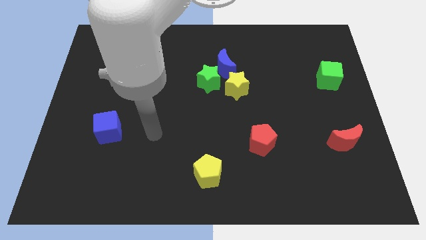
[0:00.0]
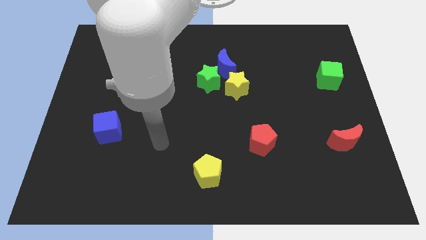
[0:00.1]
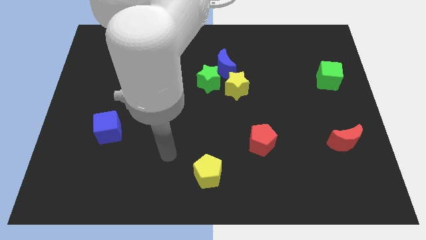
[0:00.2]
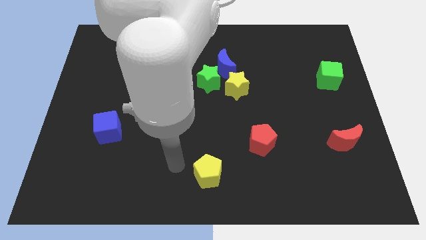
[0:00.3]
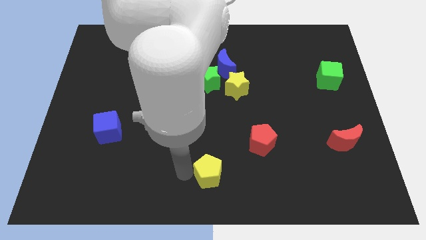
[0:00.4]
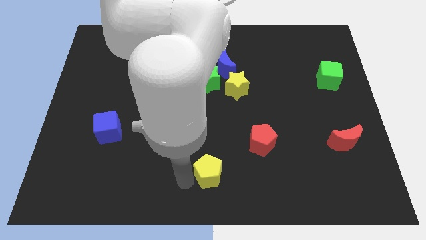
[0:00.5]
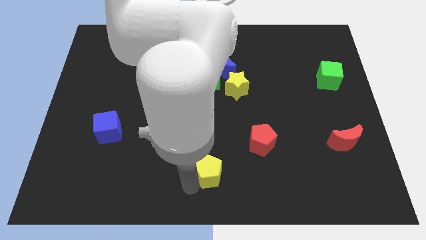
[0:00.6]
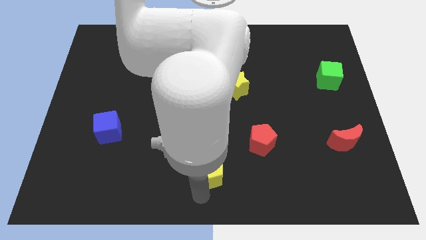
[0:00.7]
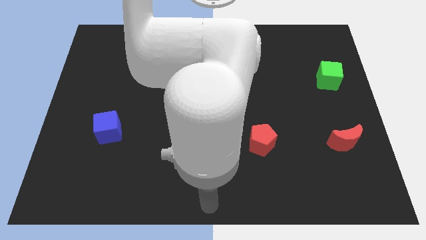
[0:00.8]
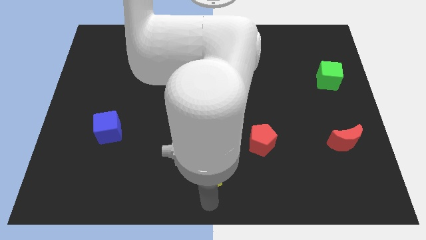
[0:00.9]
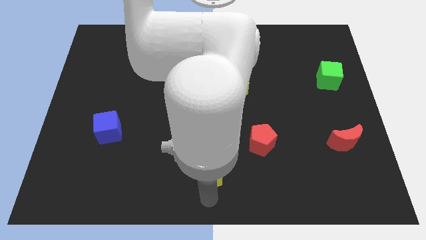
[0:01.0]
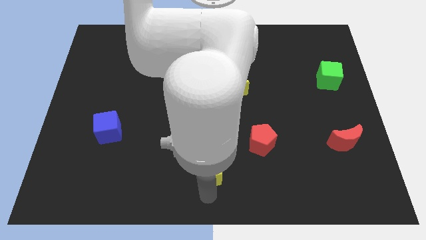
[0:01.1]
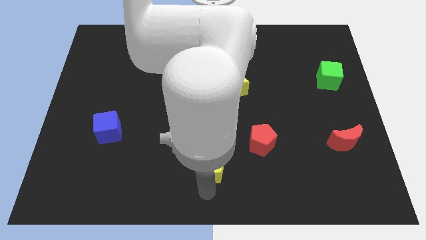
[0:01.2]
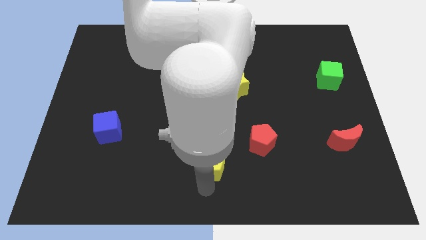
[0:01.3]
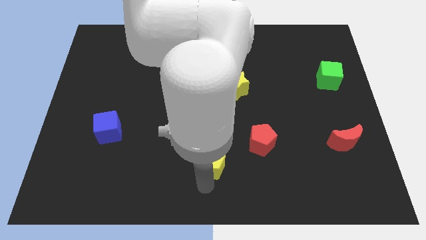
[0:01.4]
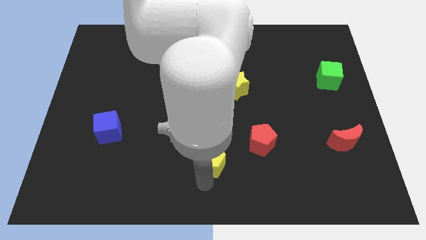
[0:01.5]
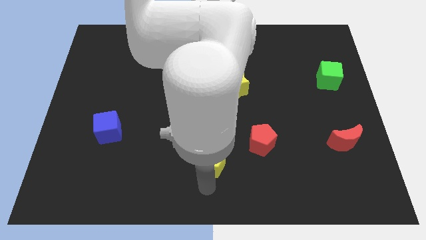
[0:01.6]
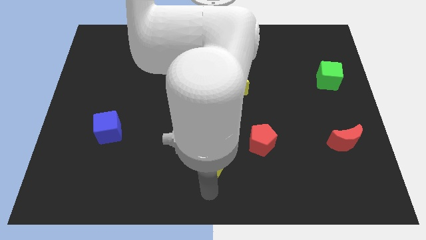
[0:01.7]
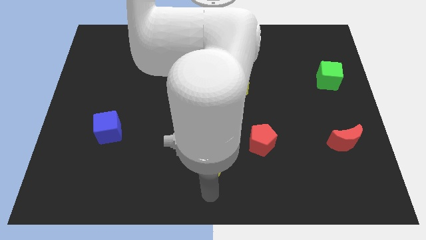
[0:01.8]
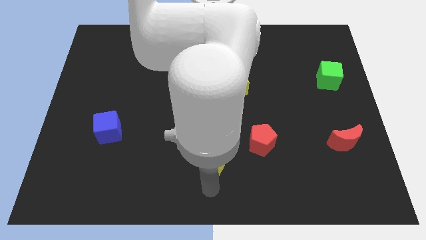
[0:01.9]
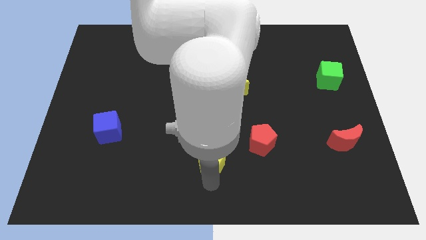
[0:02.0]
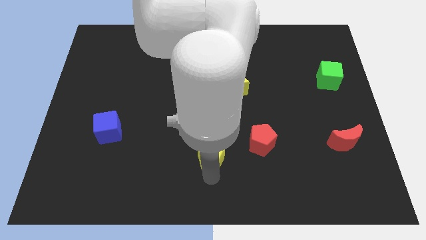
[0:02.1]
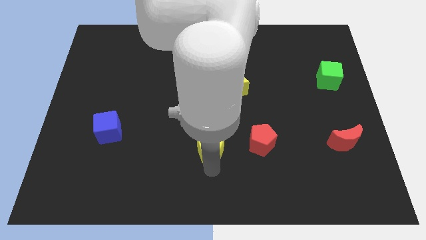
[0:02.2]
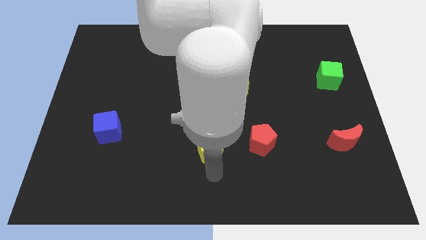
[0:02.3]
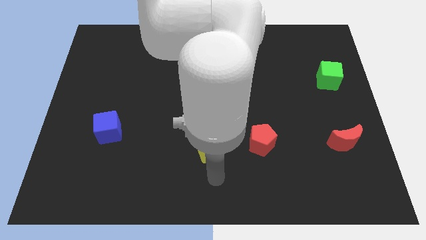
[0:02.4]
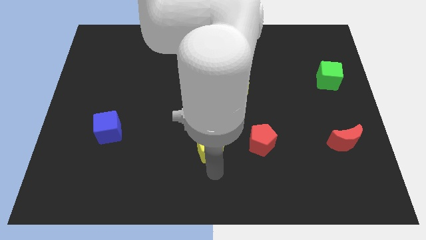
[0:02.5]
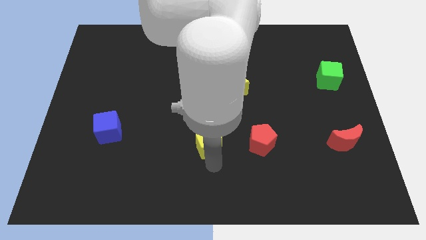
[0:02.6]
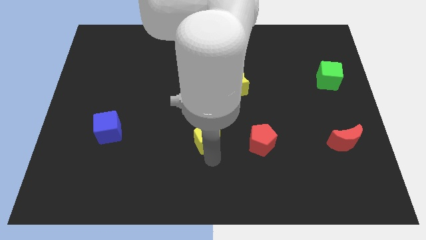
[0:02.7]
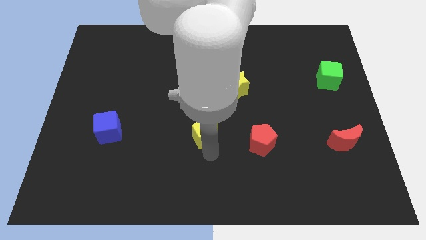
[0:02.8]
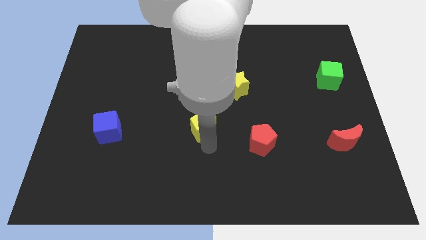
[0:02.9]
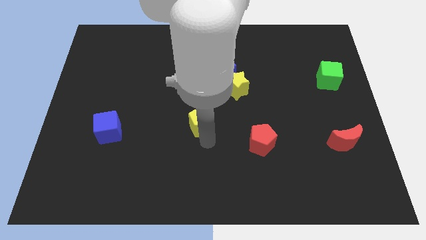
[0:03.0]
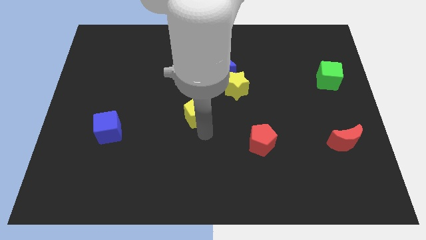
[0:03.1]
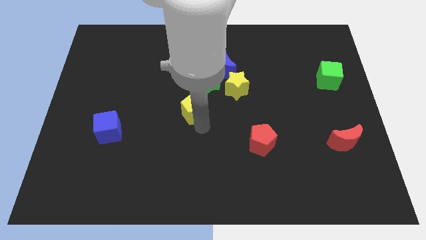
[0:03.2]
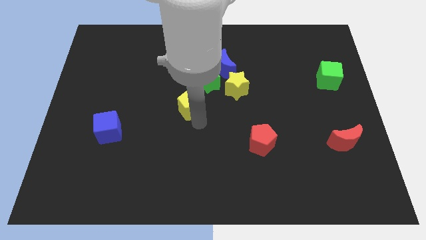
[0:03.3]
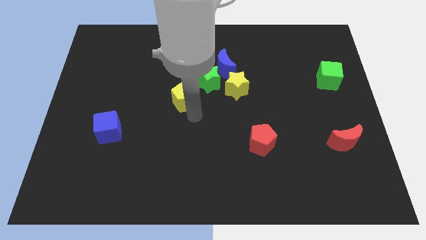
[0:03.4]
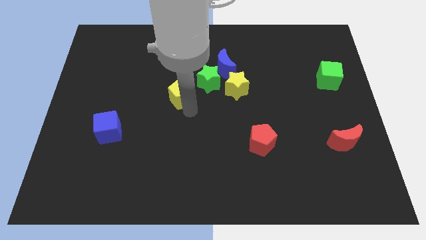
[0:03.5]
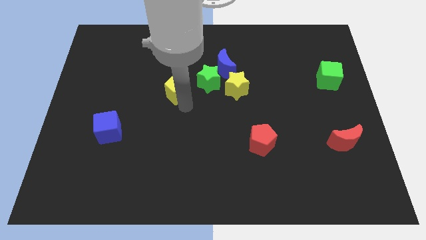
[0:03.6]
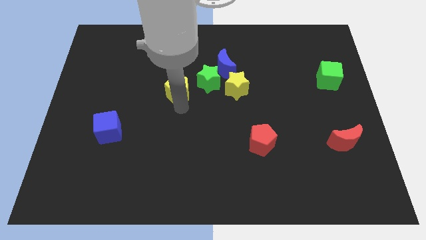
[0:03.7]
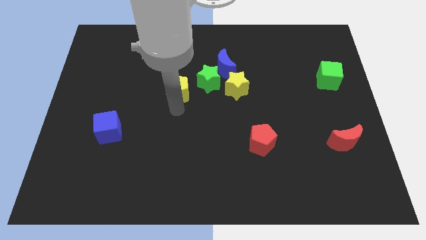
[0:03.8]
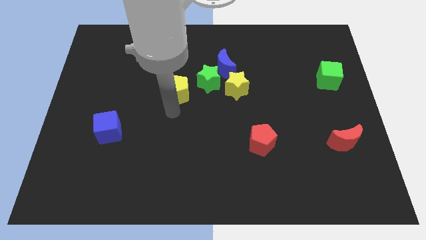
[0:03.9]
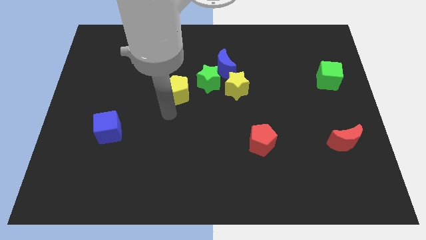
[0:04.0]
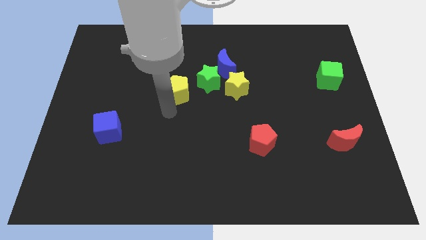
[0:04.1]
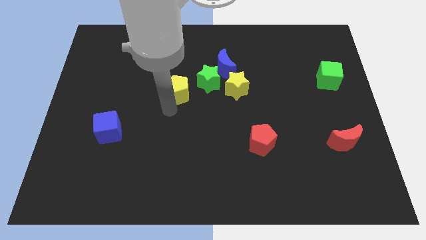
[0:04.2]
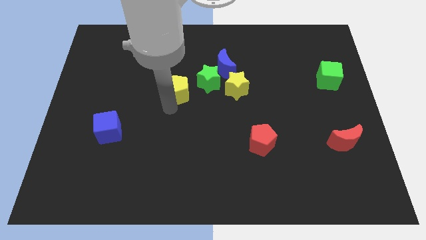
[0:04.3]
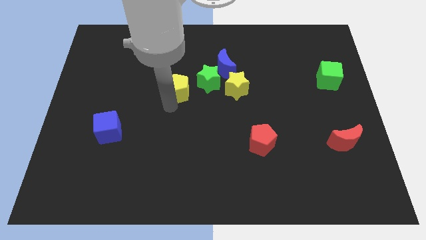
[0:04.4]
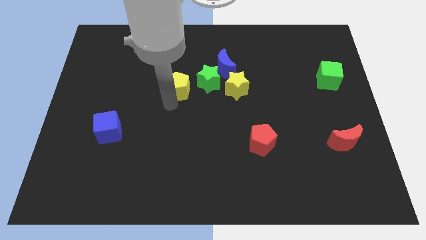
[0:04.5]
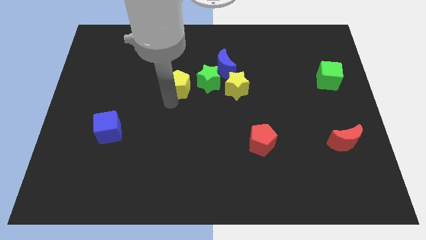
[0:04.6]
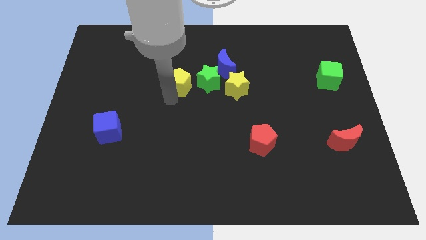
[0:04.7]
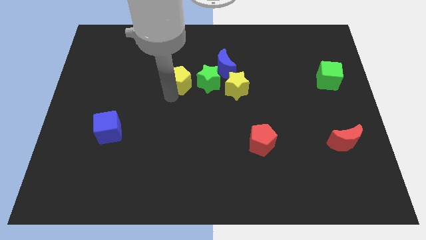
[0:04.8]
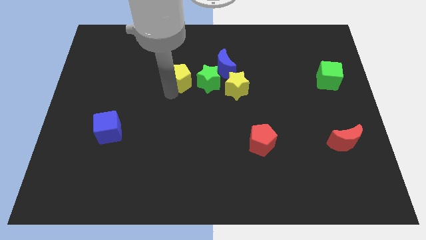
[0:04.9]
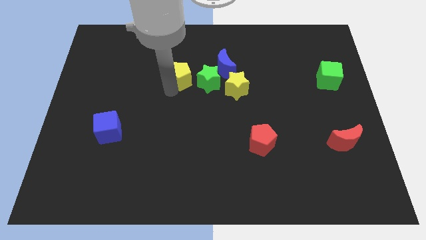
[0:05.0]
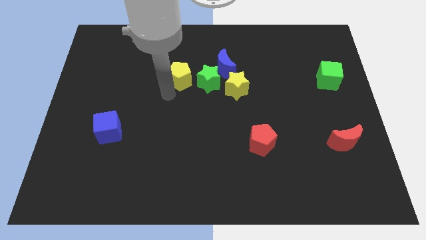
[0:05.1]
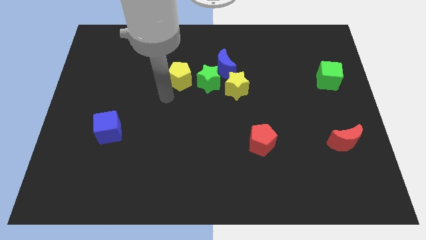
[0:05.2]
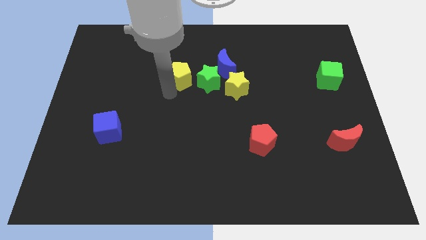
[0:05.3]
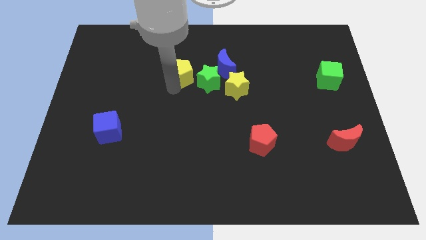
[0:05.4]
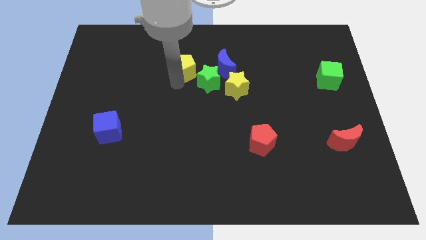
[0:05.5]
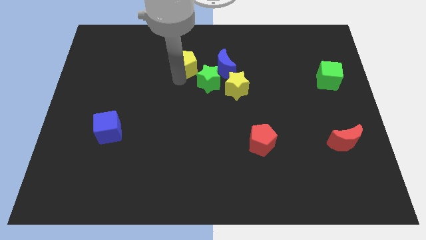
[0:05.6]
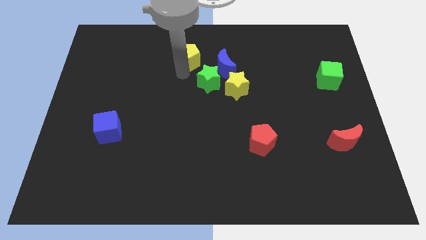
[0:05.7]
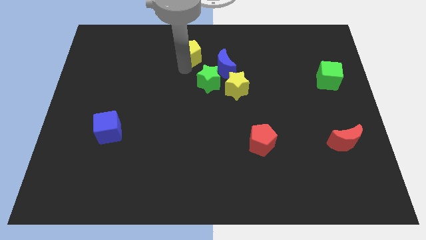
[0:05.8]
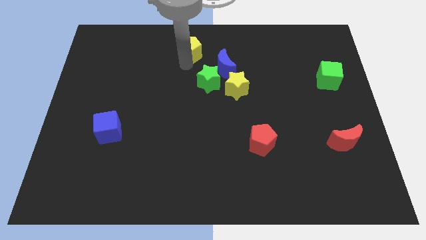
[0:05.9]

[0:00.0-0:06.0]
slide the yellow pentagon to the top side

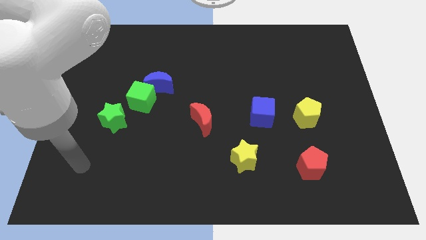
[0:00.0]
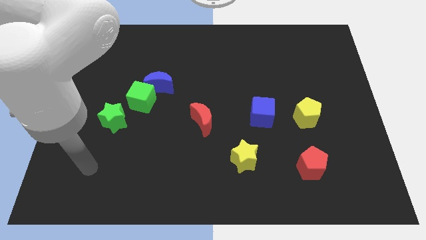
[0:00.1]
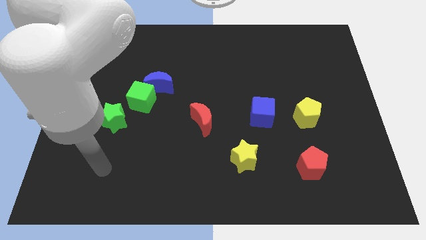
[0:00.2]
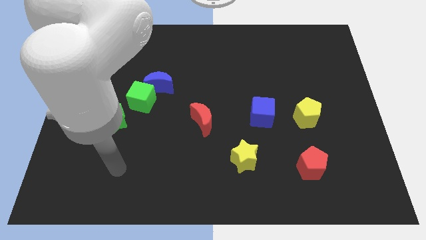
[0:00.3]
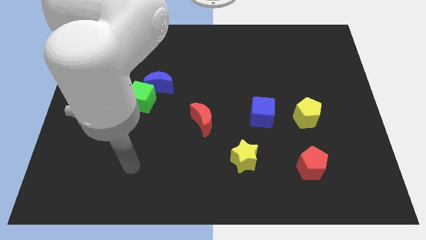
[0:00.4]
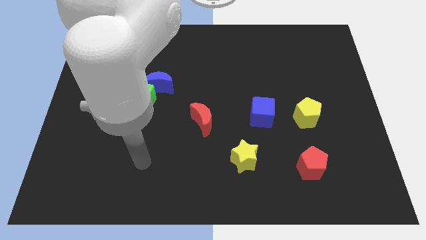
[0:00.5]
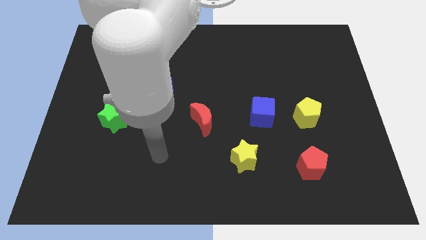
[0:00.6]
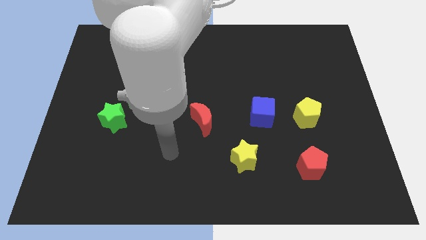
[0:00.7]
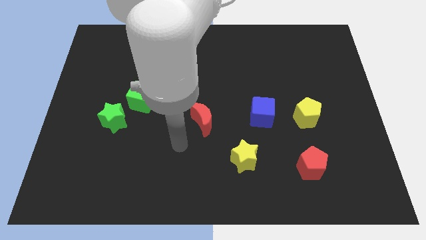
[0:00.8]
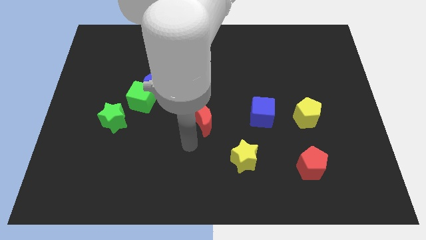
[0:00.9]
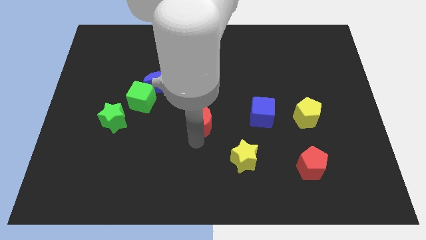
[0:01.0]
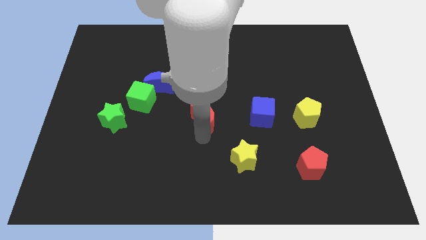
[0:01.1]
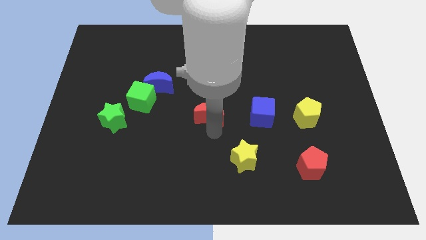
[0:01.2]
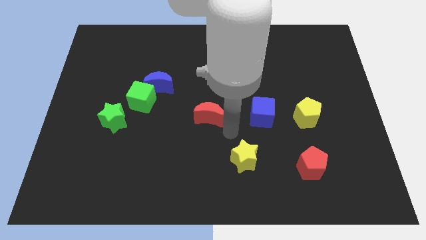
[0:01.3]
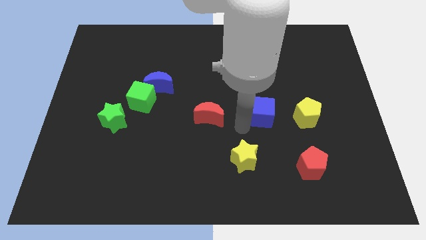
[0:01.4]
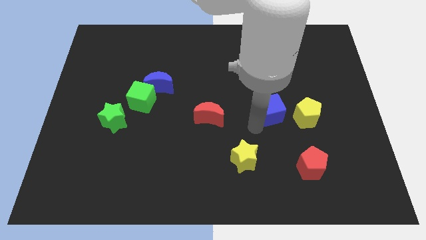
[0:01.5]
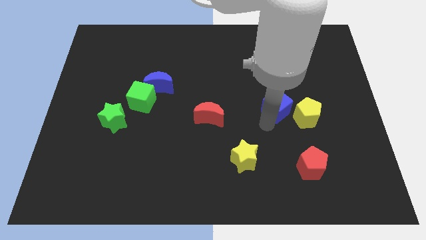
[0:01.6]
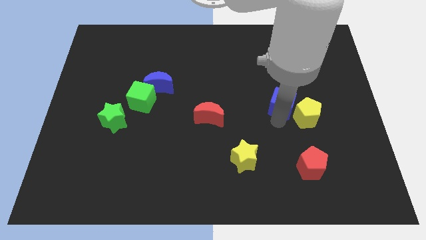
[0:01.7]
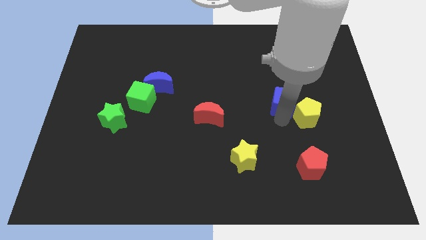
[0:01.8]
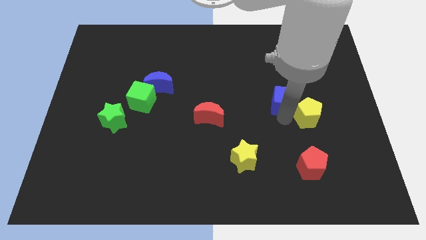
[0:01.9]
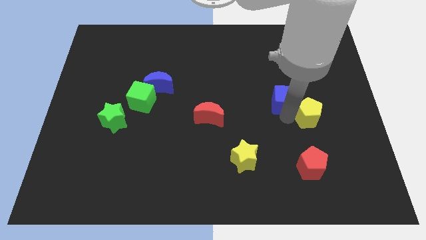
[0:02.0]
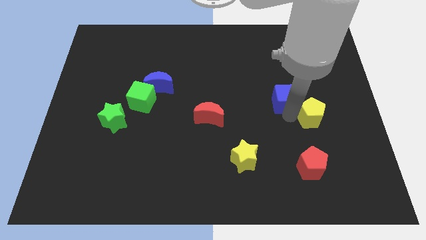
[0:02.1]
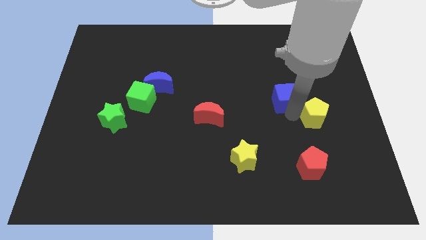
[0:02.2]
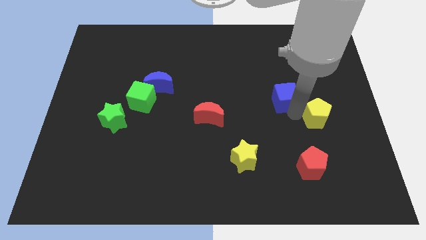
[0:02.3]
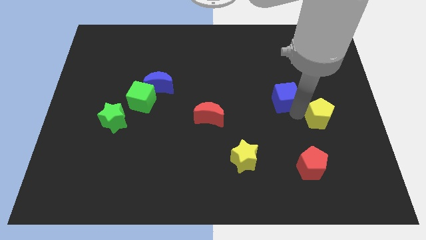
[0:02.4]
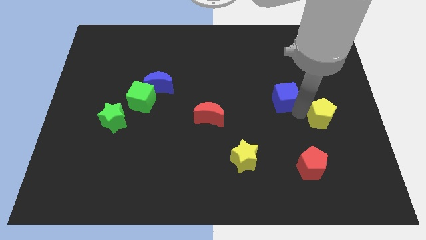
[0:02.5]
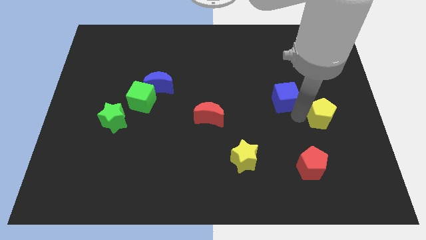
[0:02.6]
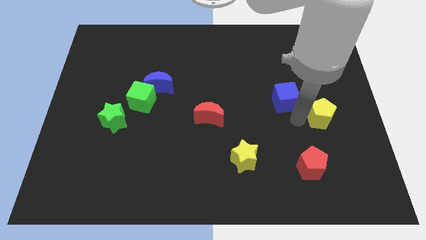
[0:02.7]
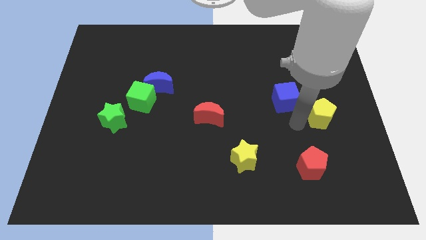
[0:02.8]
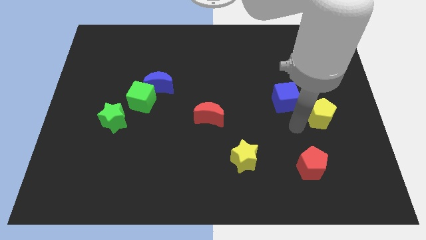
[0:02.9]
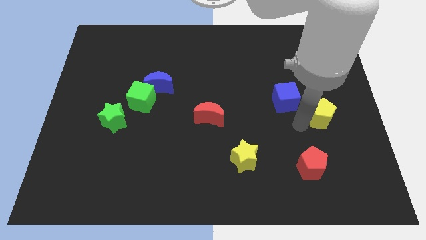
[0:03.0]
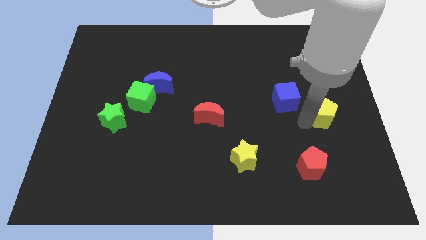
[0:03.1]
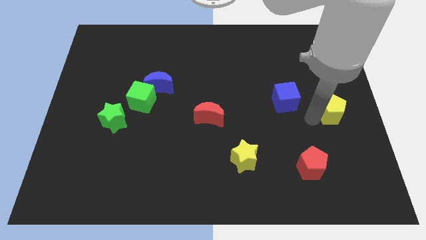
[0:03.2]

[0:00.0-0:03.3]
put the yellow pentagon to the center right
